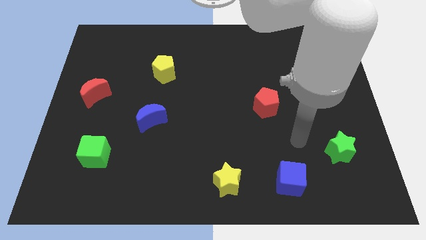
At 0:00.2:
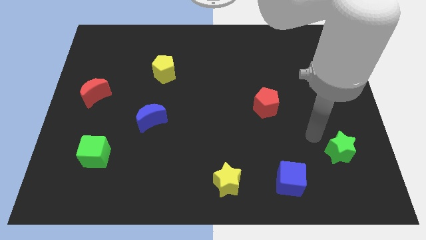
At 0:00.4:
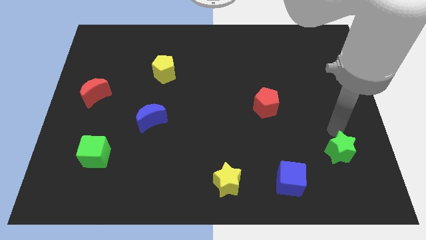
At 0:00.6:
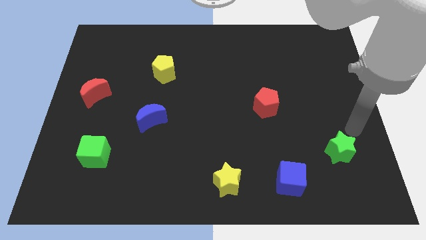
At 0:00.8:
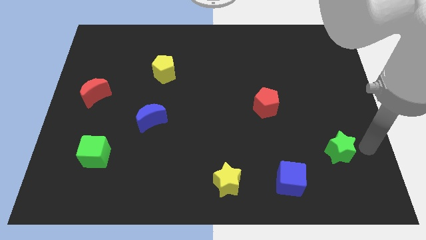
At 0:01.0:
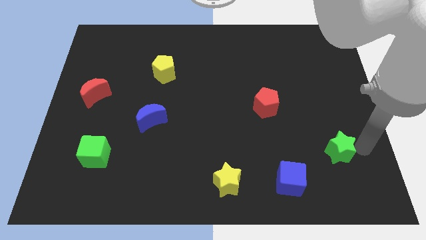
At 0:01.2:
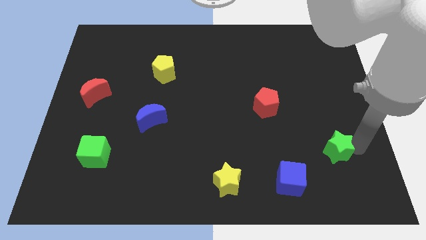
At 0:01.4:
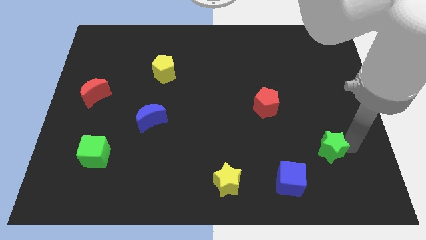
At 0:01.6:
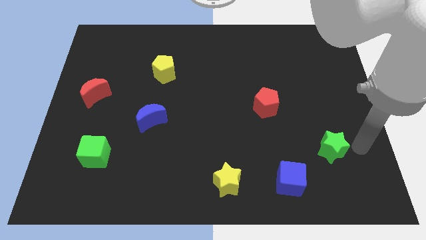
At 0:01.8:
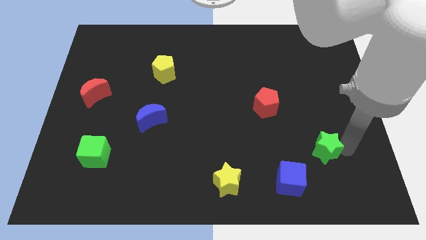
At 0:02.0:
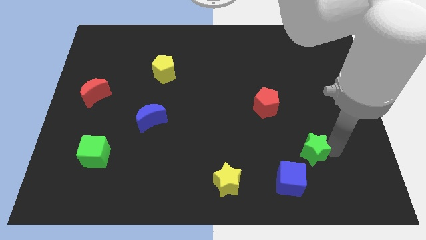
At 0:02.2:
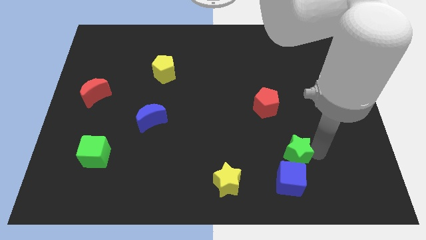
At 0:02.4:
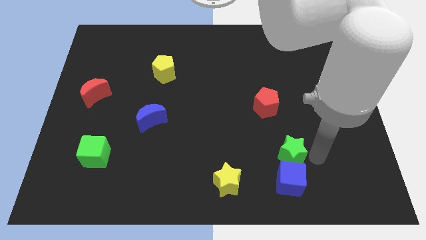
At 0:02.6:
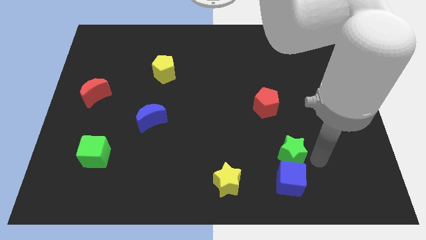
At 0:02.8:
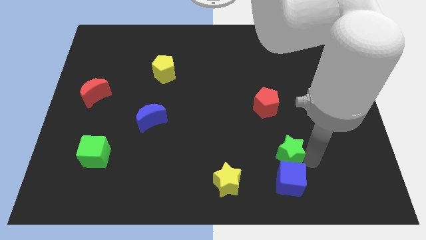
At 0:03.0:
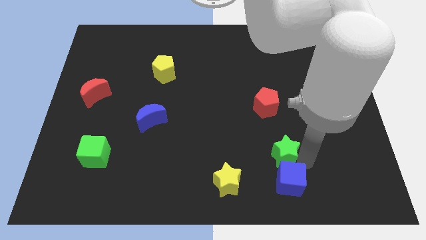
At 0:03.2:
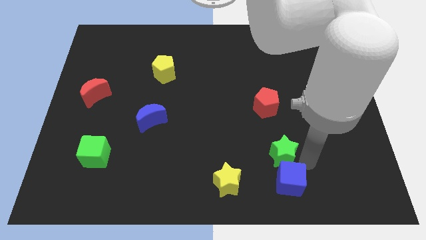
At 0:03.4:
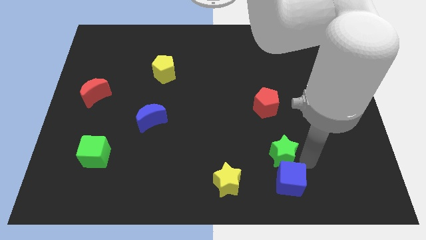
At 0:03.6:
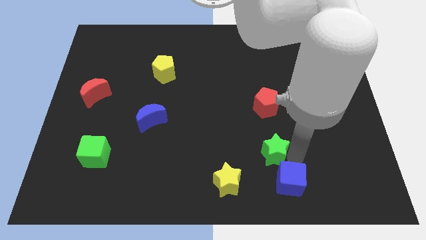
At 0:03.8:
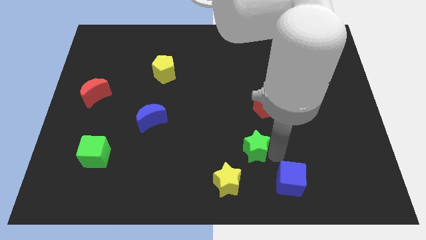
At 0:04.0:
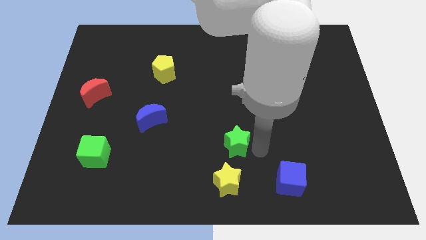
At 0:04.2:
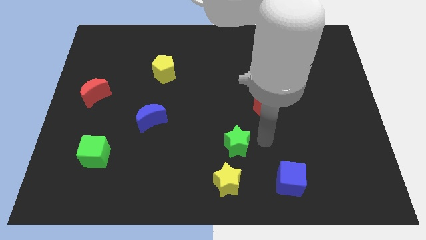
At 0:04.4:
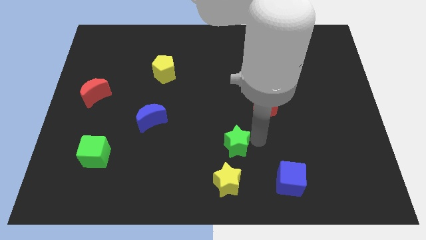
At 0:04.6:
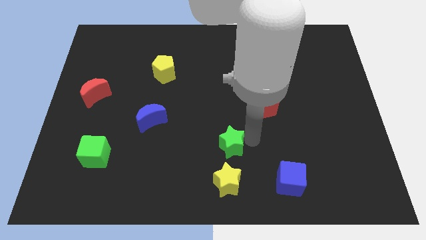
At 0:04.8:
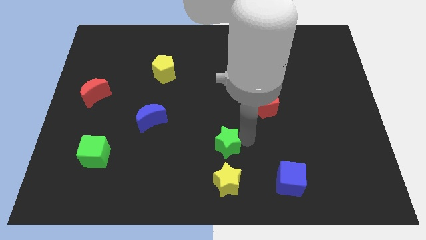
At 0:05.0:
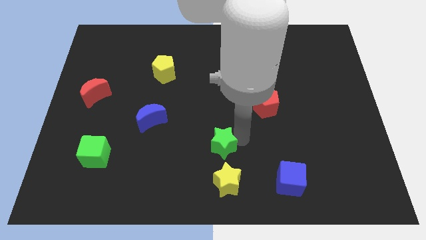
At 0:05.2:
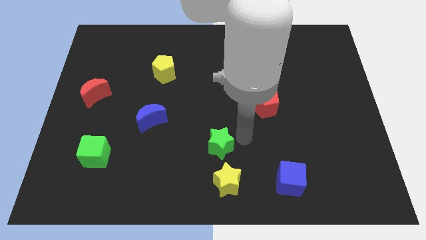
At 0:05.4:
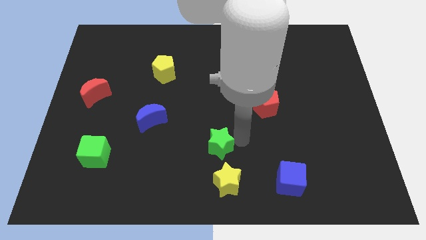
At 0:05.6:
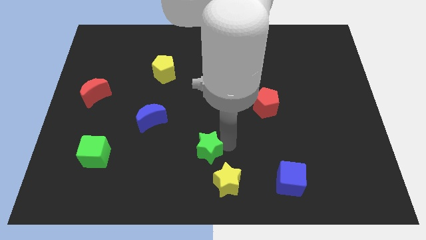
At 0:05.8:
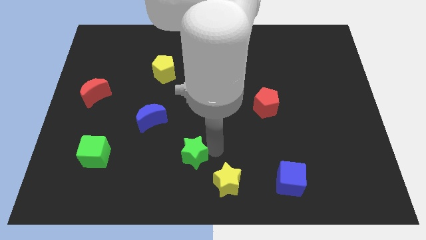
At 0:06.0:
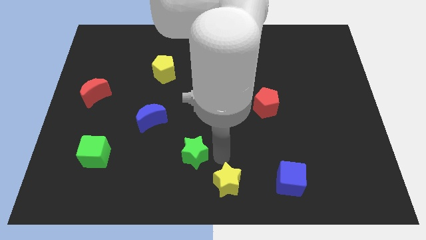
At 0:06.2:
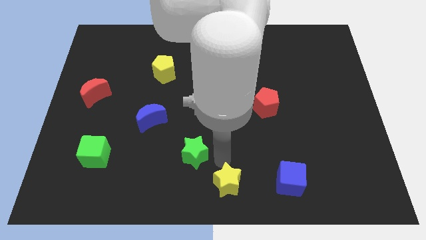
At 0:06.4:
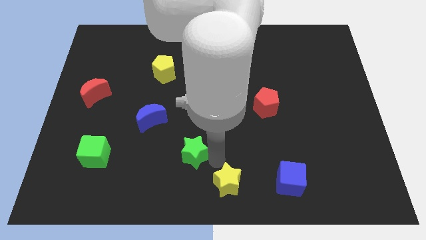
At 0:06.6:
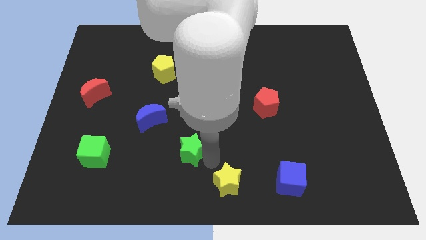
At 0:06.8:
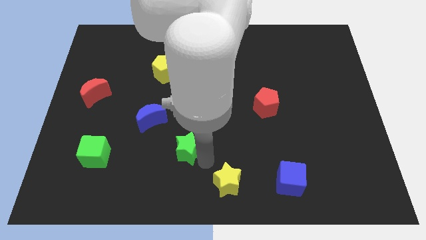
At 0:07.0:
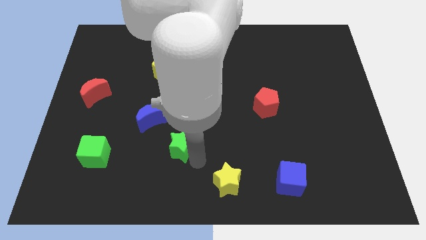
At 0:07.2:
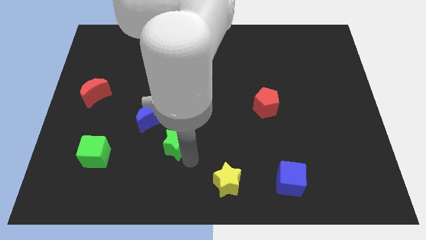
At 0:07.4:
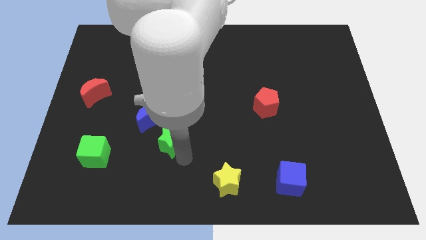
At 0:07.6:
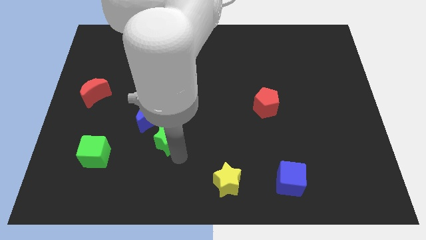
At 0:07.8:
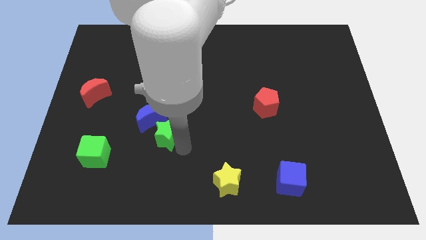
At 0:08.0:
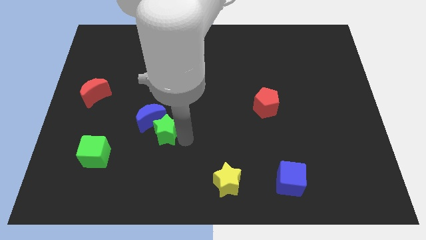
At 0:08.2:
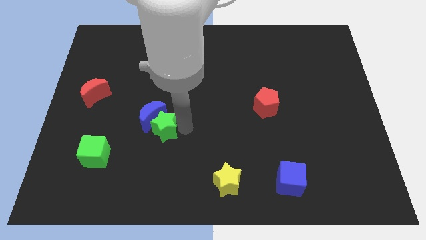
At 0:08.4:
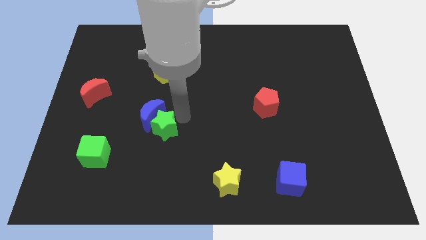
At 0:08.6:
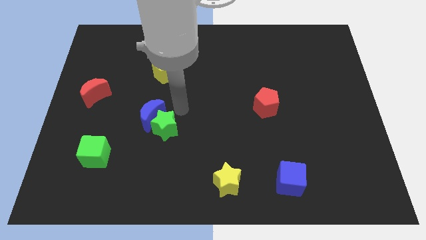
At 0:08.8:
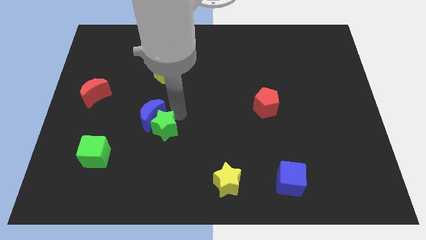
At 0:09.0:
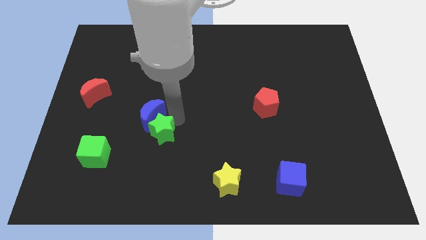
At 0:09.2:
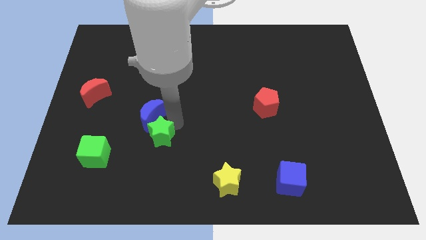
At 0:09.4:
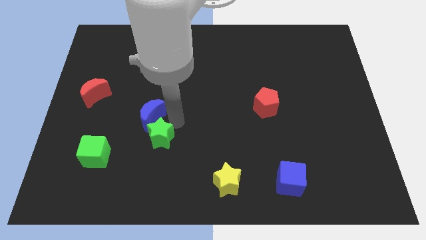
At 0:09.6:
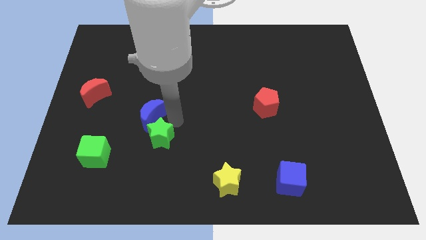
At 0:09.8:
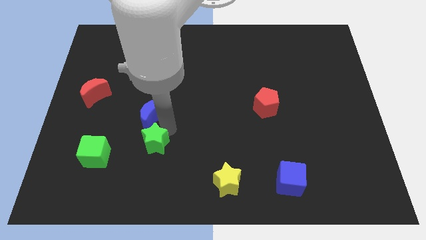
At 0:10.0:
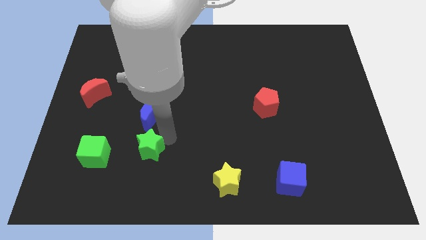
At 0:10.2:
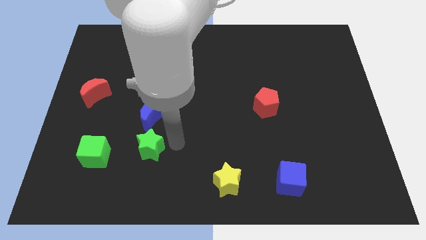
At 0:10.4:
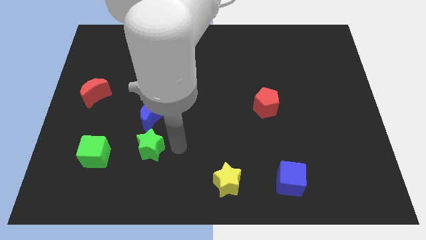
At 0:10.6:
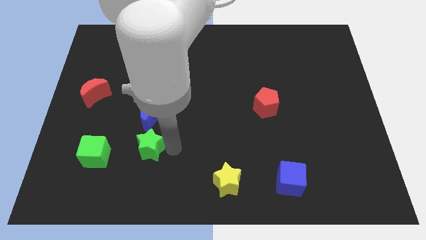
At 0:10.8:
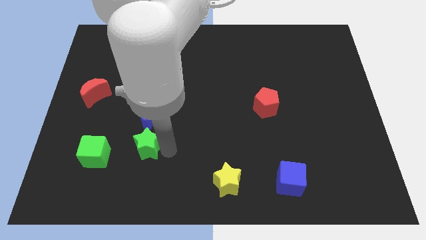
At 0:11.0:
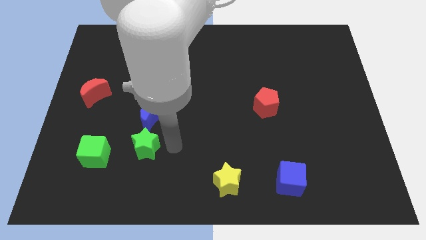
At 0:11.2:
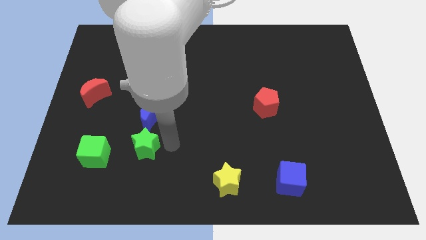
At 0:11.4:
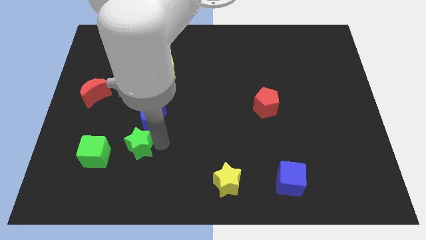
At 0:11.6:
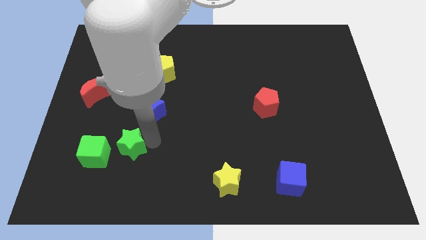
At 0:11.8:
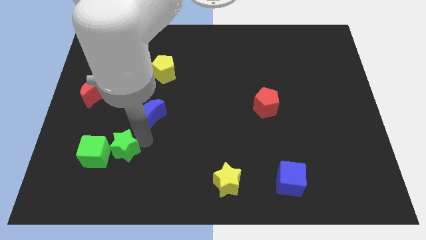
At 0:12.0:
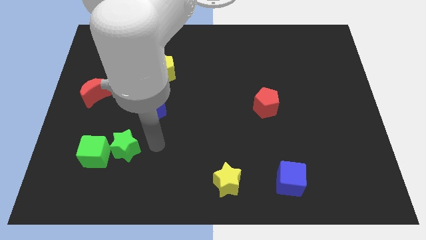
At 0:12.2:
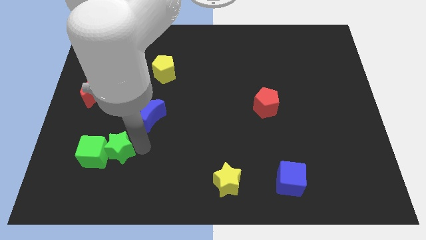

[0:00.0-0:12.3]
put the green star towards the green cube

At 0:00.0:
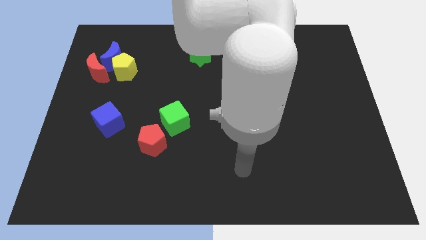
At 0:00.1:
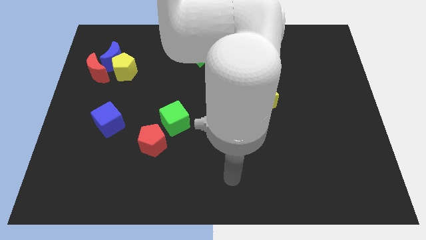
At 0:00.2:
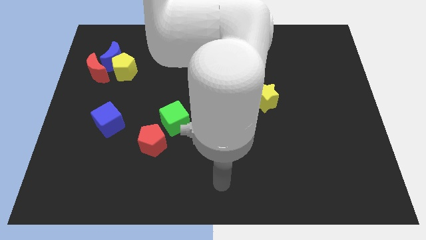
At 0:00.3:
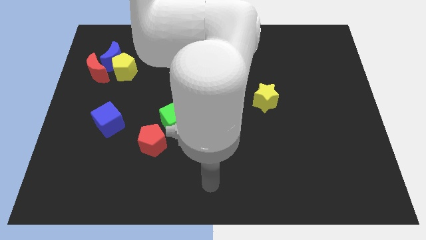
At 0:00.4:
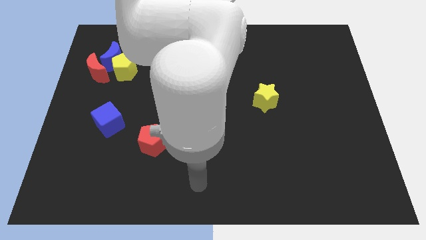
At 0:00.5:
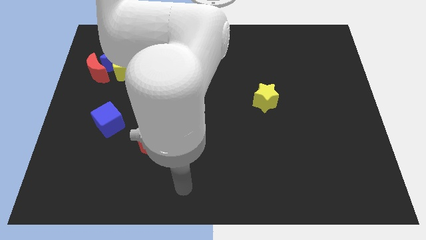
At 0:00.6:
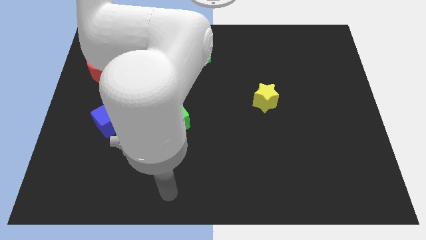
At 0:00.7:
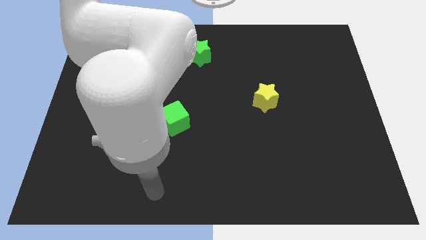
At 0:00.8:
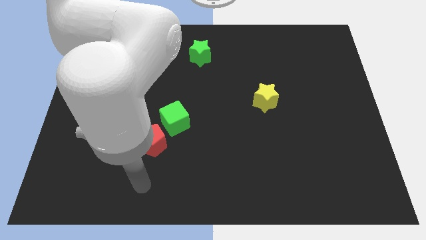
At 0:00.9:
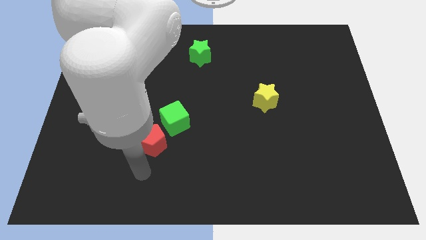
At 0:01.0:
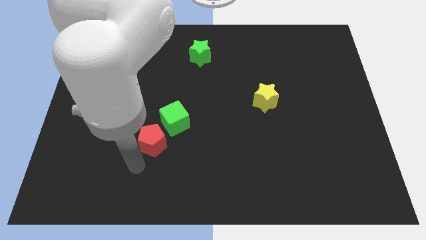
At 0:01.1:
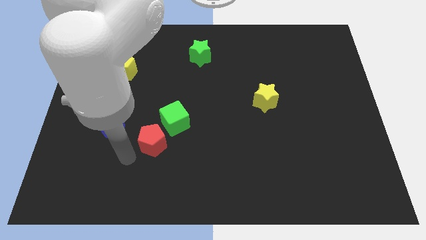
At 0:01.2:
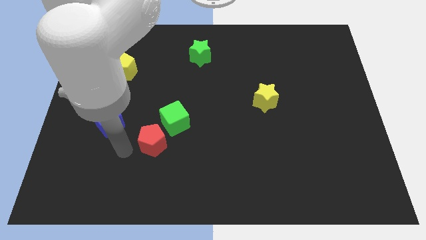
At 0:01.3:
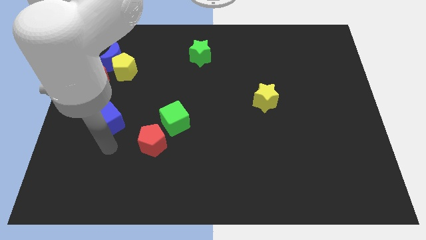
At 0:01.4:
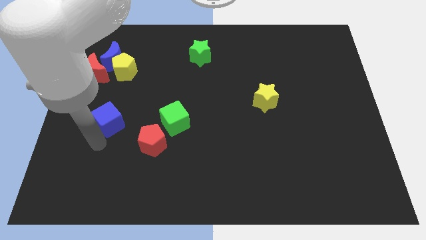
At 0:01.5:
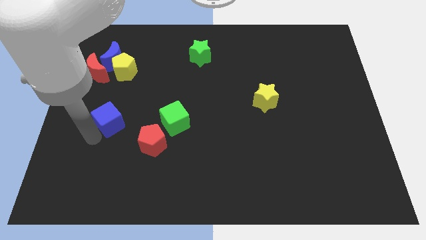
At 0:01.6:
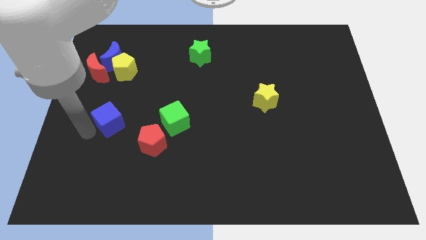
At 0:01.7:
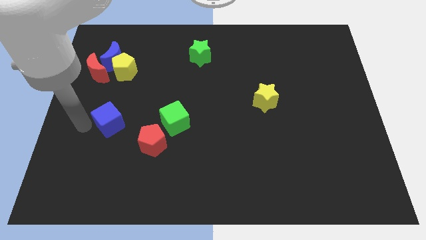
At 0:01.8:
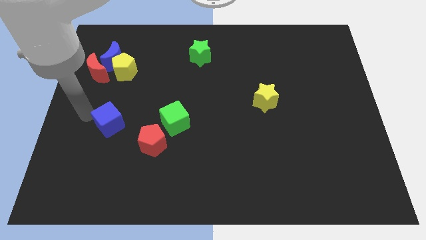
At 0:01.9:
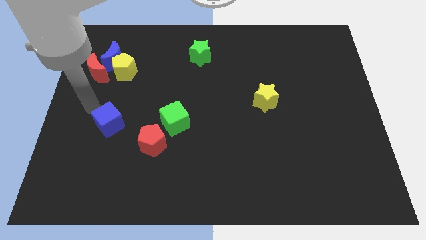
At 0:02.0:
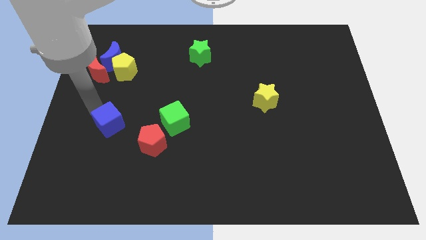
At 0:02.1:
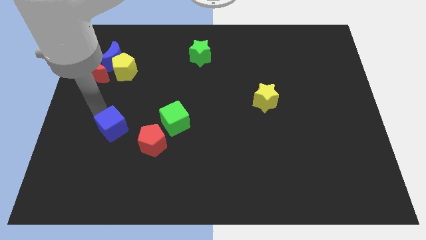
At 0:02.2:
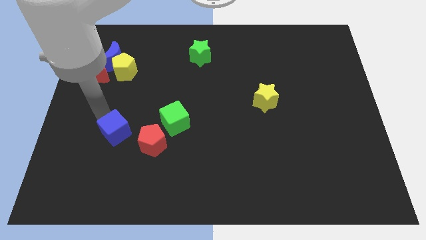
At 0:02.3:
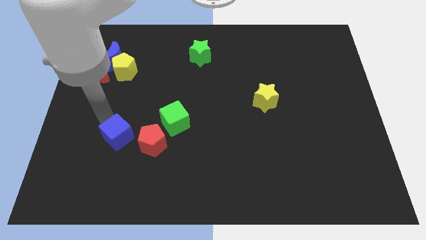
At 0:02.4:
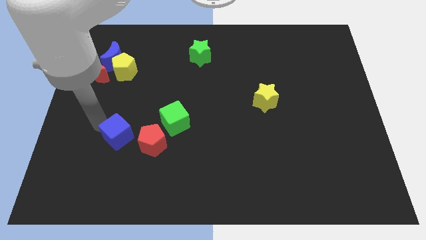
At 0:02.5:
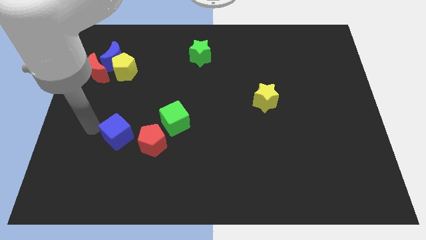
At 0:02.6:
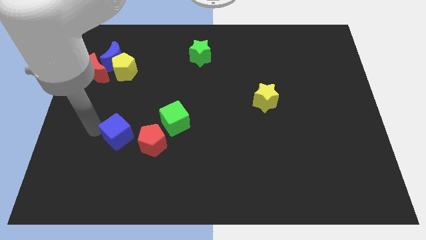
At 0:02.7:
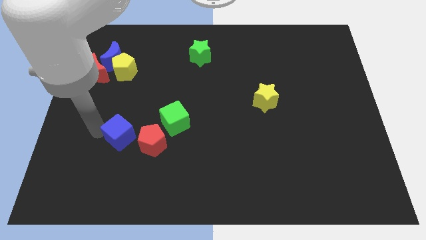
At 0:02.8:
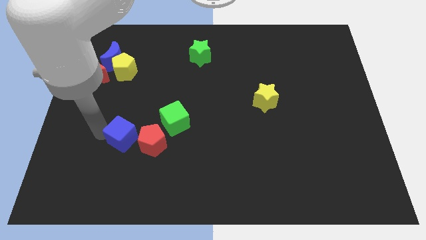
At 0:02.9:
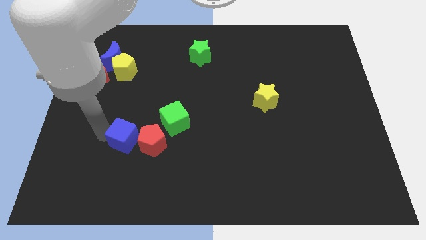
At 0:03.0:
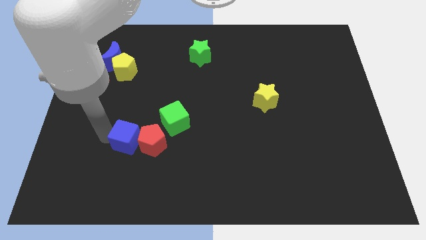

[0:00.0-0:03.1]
slide the blue cube towards the red pentagon
